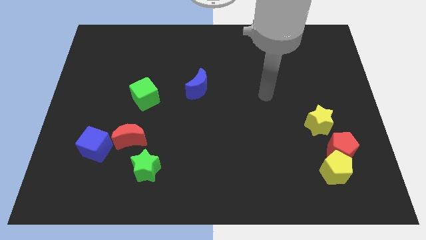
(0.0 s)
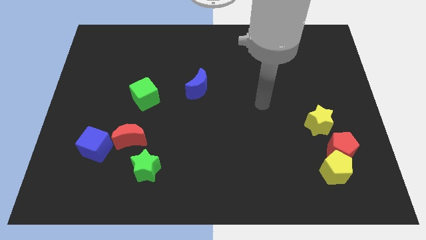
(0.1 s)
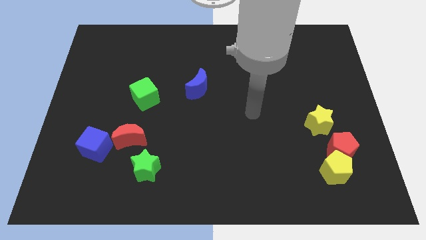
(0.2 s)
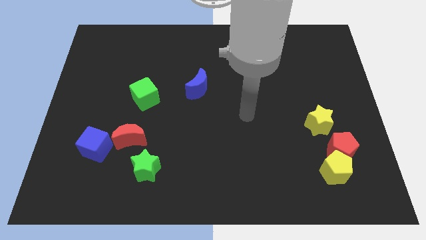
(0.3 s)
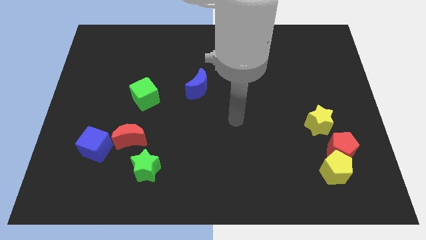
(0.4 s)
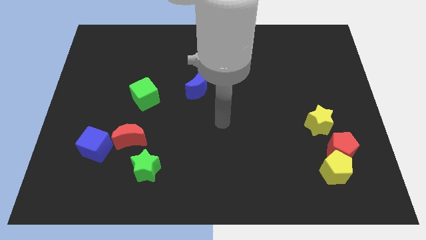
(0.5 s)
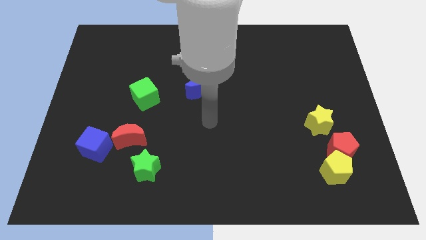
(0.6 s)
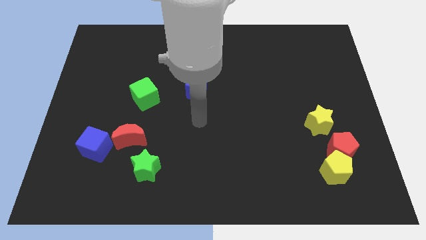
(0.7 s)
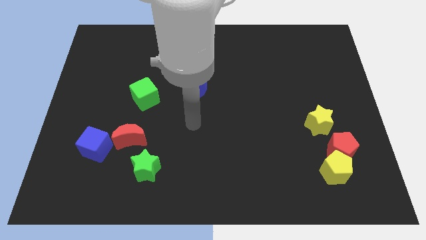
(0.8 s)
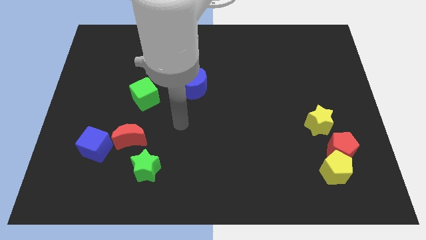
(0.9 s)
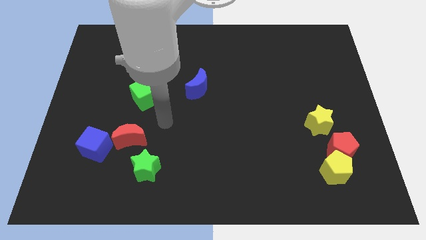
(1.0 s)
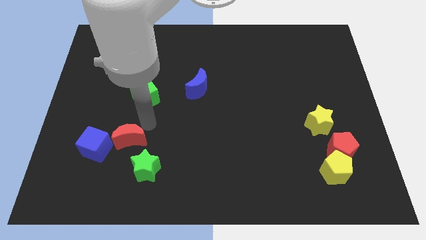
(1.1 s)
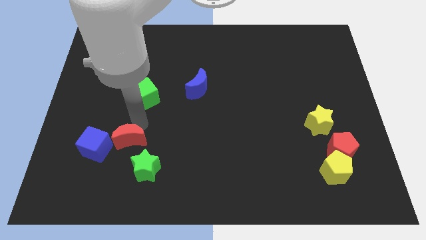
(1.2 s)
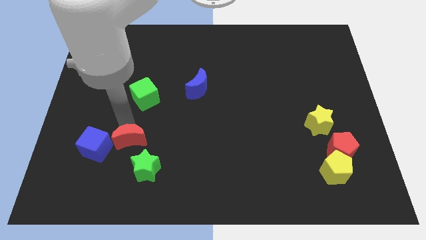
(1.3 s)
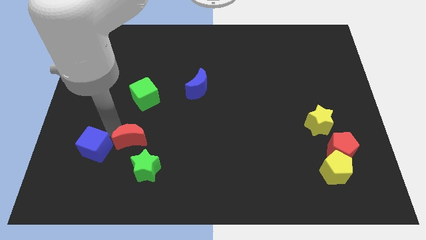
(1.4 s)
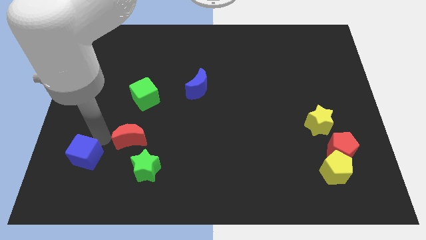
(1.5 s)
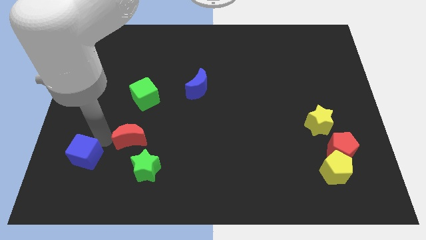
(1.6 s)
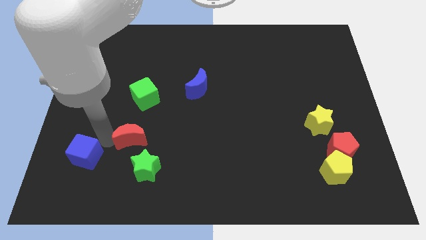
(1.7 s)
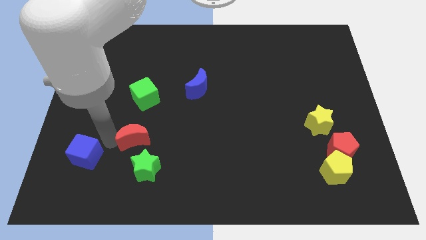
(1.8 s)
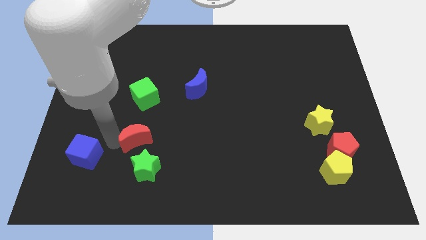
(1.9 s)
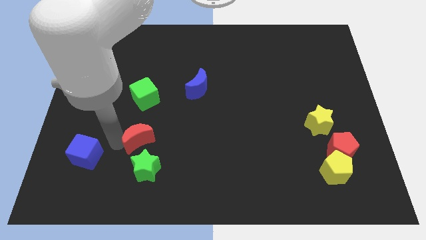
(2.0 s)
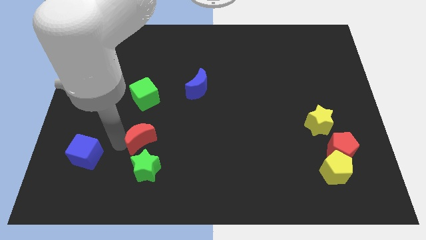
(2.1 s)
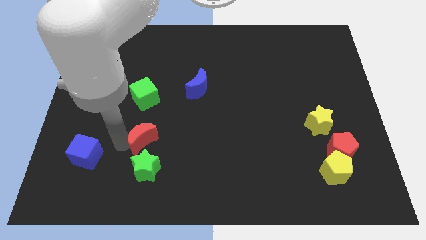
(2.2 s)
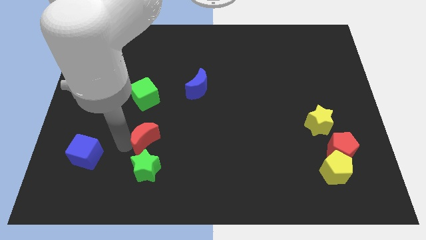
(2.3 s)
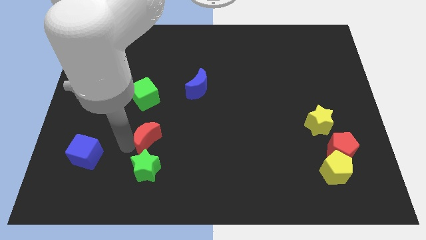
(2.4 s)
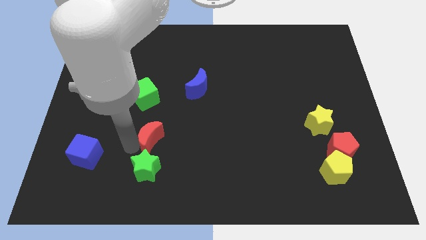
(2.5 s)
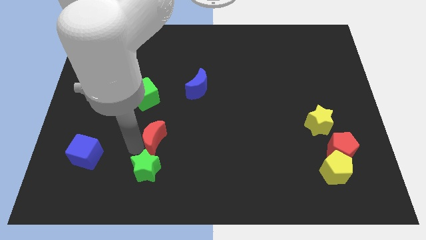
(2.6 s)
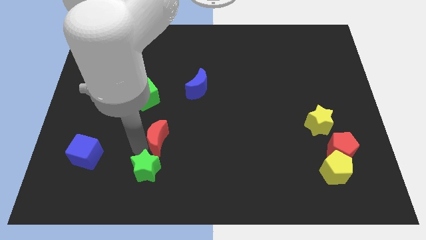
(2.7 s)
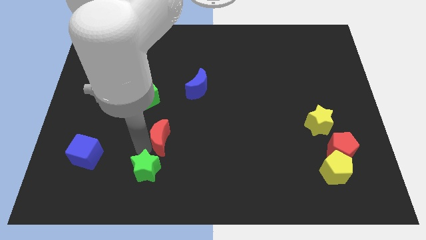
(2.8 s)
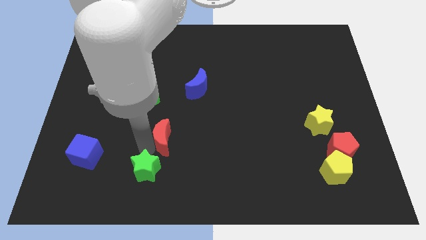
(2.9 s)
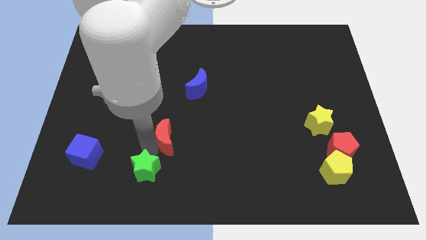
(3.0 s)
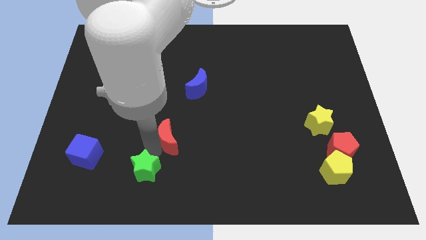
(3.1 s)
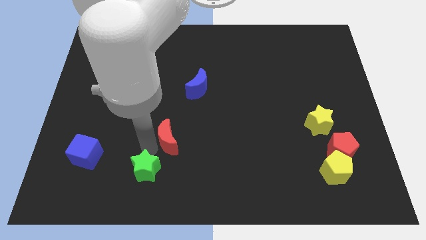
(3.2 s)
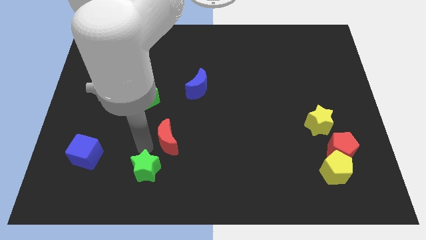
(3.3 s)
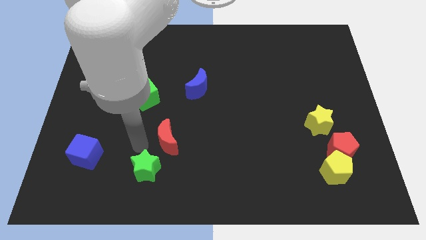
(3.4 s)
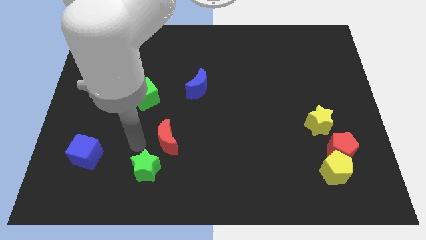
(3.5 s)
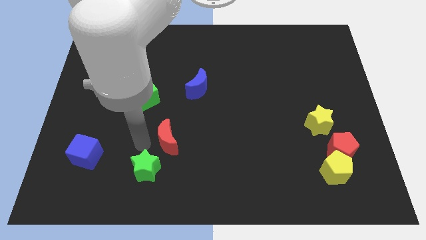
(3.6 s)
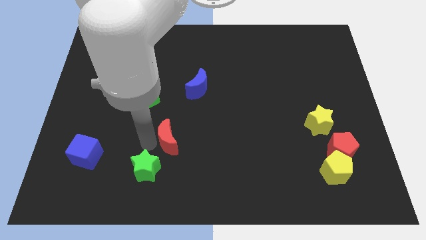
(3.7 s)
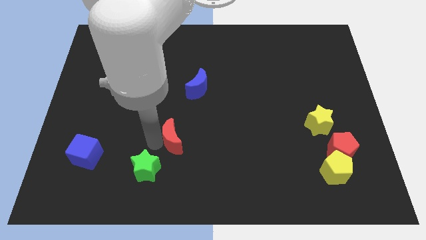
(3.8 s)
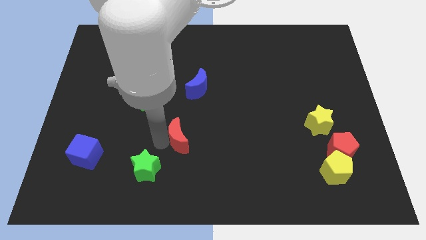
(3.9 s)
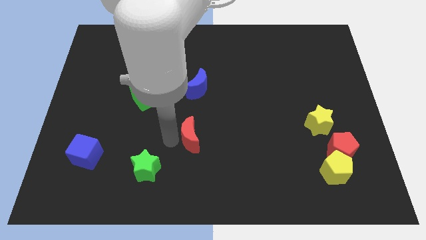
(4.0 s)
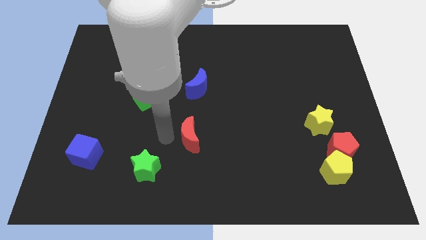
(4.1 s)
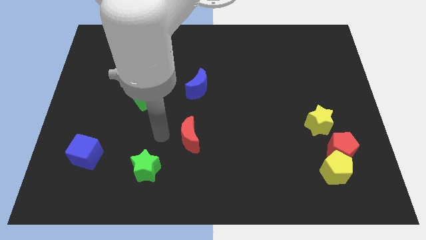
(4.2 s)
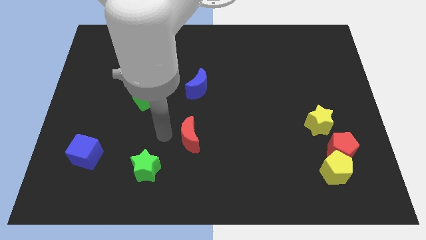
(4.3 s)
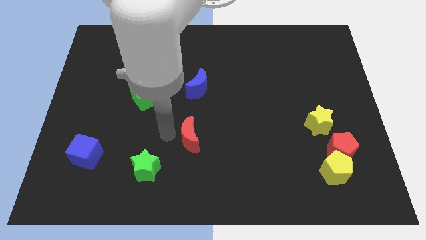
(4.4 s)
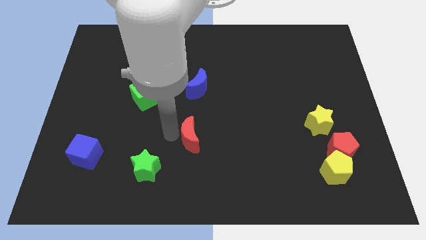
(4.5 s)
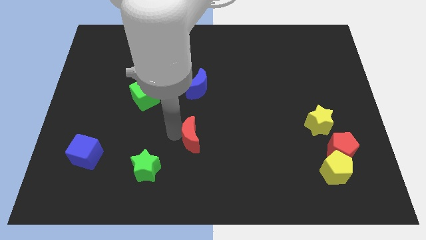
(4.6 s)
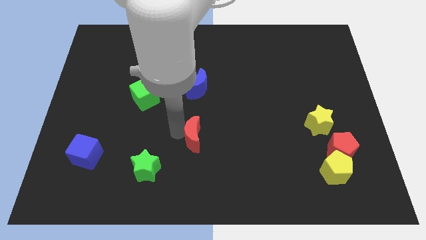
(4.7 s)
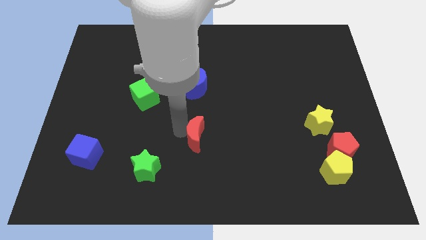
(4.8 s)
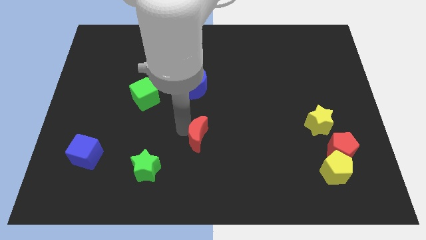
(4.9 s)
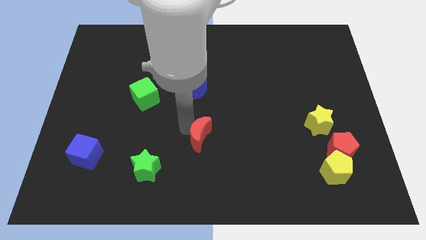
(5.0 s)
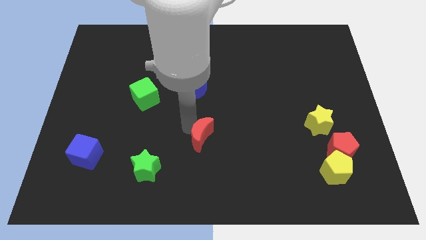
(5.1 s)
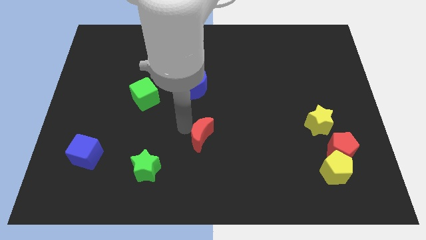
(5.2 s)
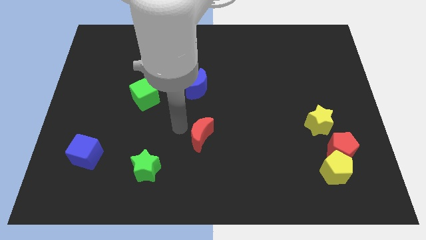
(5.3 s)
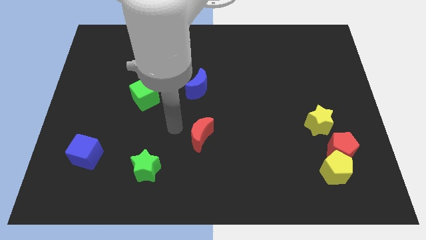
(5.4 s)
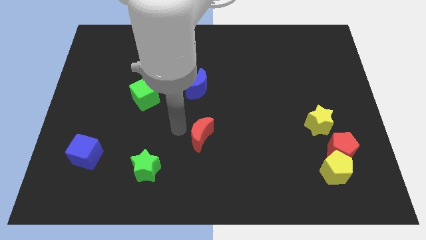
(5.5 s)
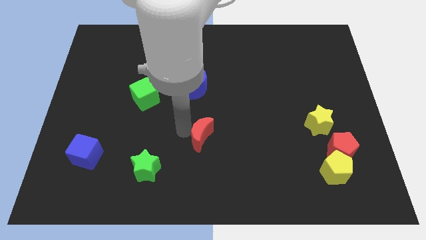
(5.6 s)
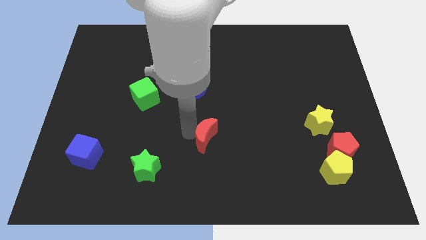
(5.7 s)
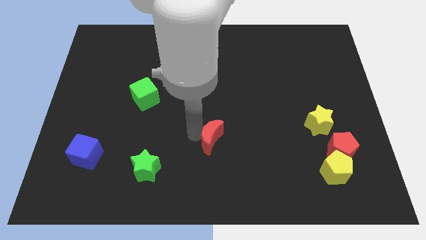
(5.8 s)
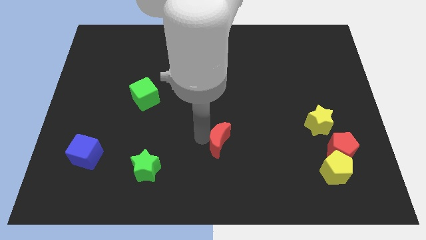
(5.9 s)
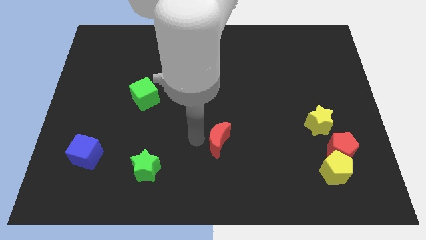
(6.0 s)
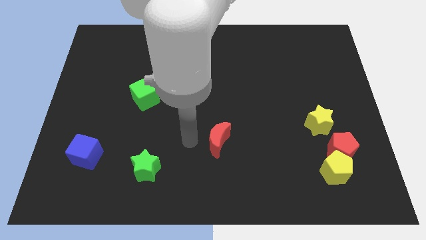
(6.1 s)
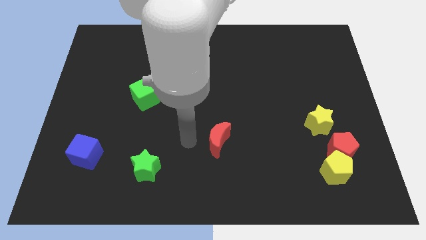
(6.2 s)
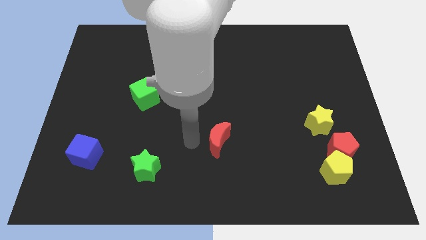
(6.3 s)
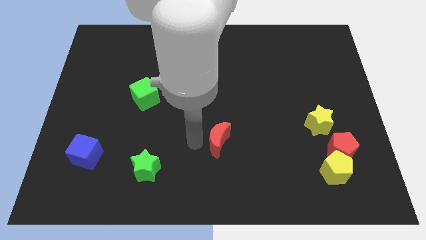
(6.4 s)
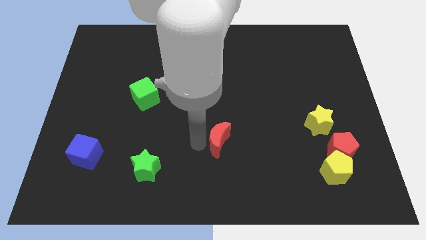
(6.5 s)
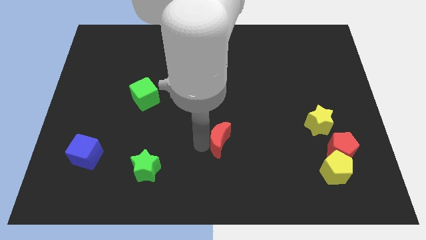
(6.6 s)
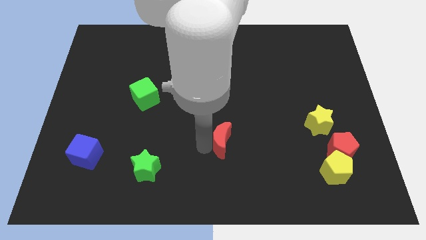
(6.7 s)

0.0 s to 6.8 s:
move the red moon right

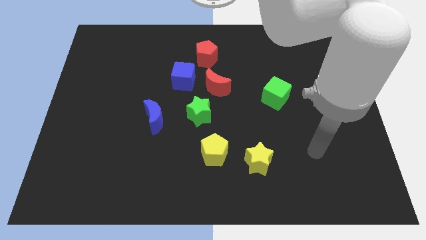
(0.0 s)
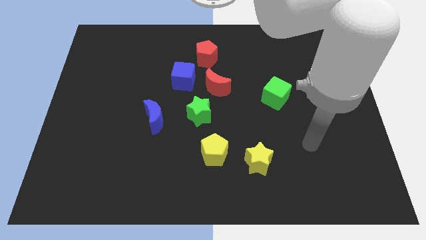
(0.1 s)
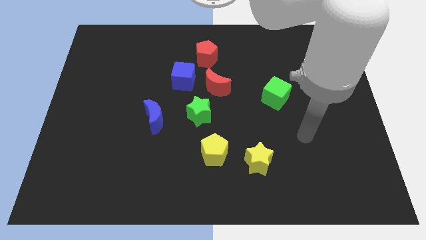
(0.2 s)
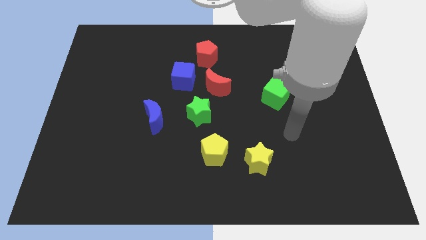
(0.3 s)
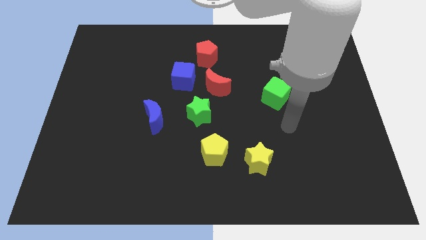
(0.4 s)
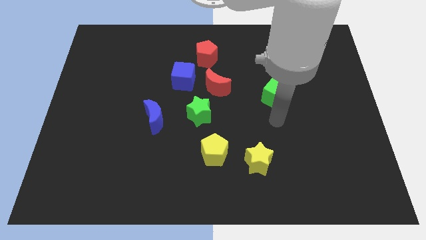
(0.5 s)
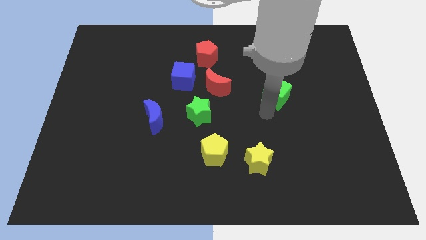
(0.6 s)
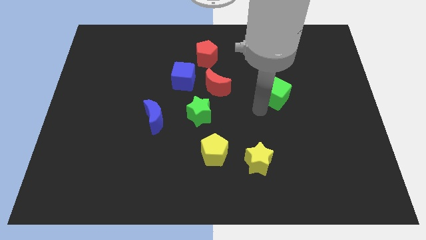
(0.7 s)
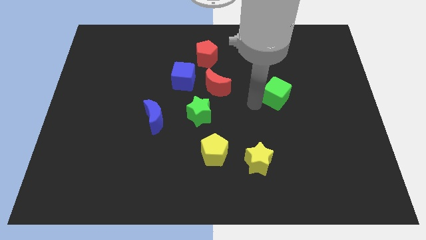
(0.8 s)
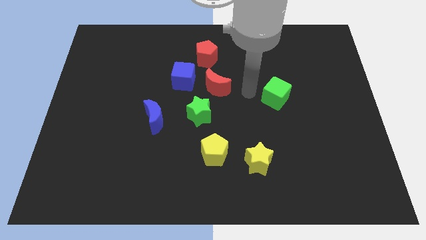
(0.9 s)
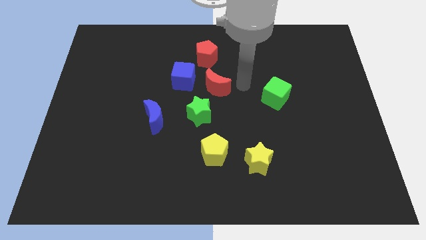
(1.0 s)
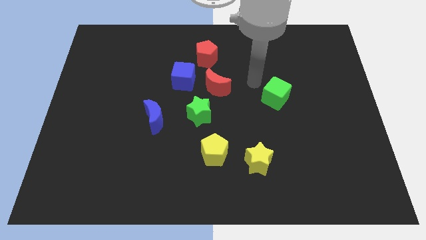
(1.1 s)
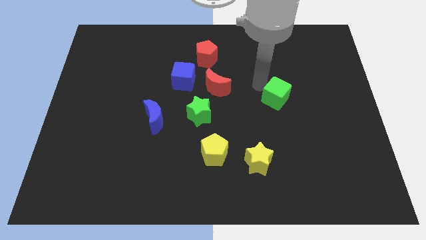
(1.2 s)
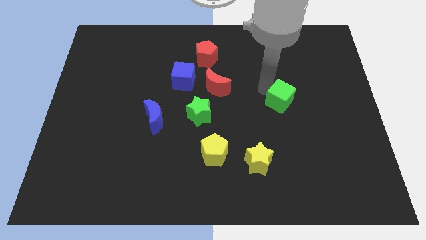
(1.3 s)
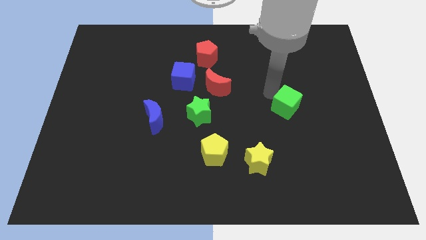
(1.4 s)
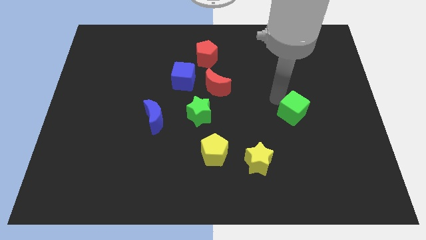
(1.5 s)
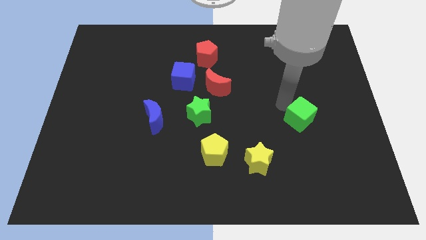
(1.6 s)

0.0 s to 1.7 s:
push the green cube downwards and then to the right somewhat
